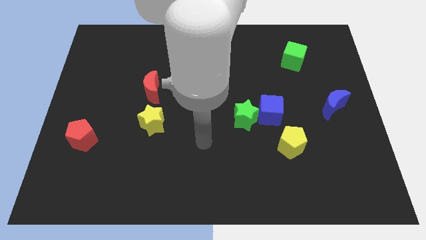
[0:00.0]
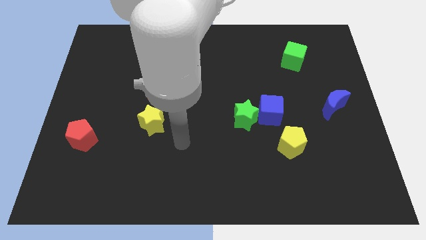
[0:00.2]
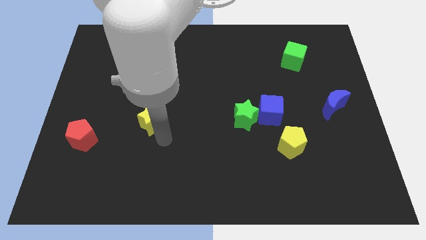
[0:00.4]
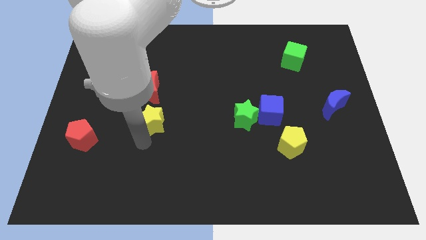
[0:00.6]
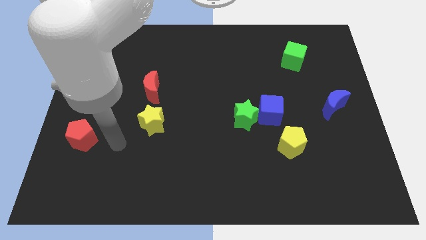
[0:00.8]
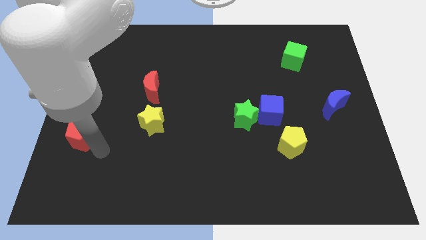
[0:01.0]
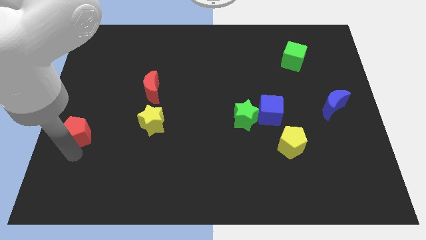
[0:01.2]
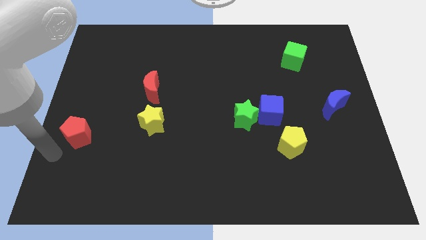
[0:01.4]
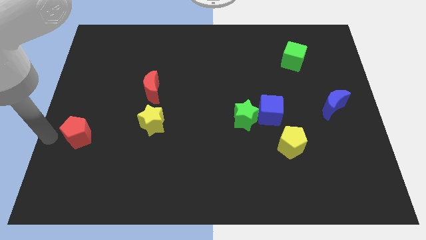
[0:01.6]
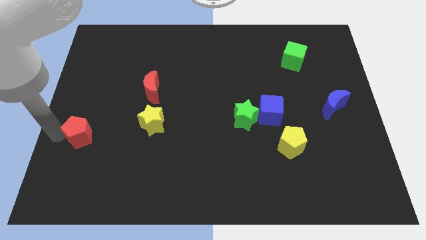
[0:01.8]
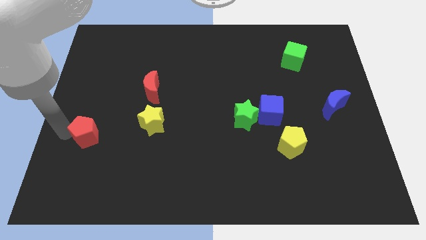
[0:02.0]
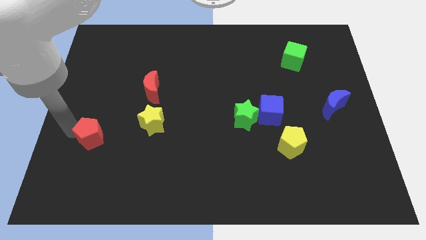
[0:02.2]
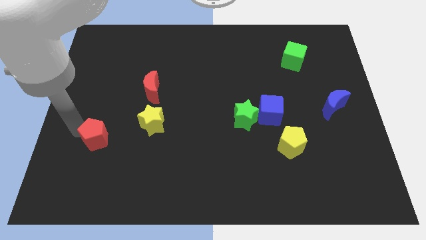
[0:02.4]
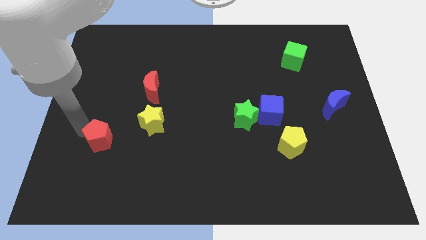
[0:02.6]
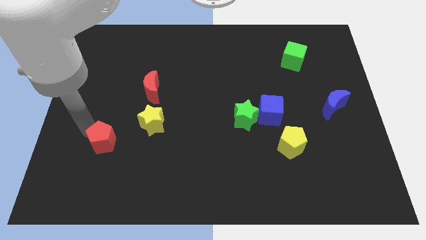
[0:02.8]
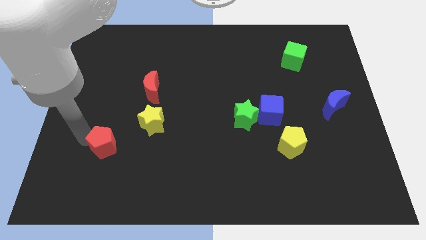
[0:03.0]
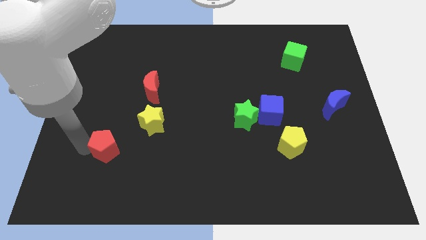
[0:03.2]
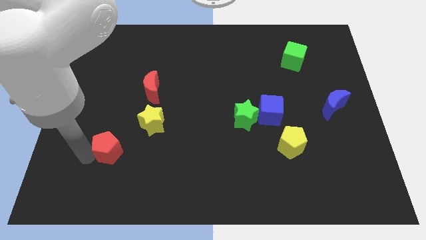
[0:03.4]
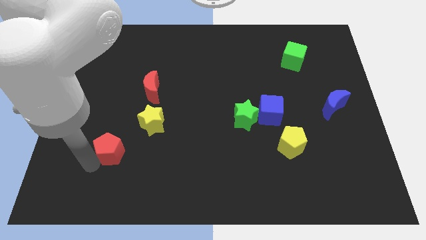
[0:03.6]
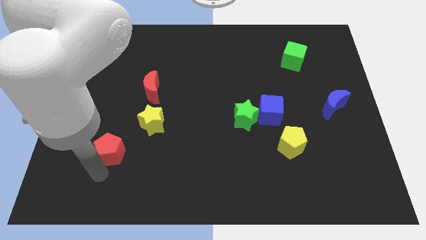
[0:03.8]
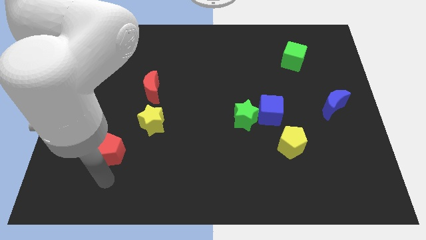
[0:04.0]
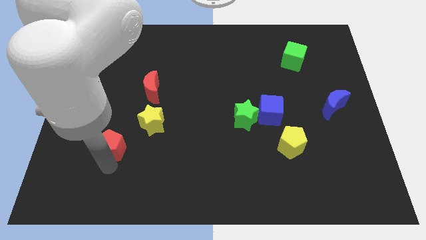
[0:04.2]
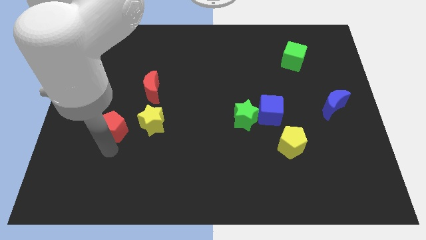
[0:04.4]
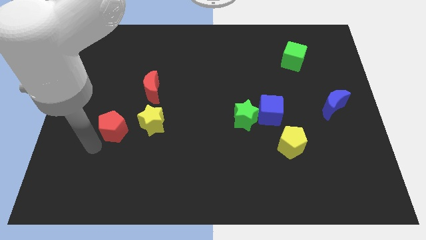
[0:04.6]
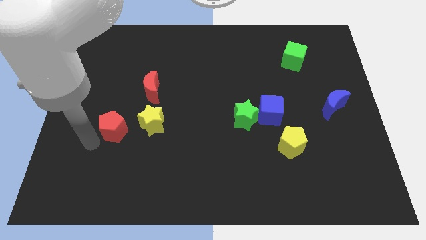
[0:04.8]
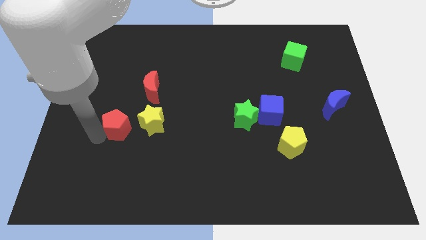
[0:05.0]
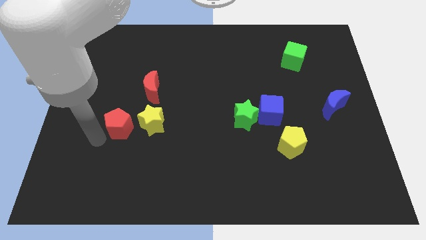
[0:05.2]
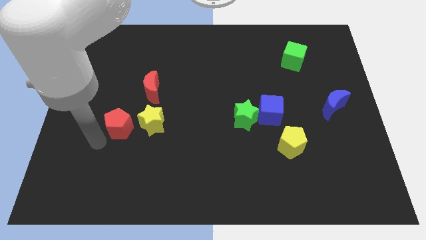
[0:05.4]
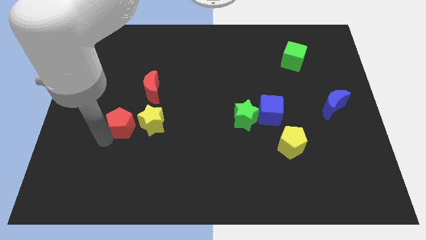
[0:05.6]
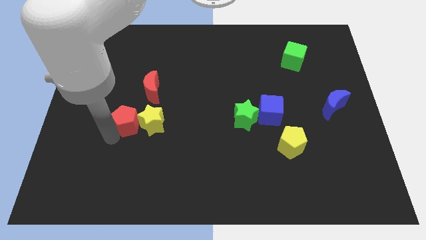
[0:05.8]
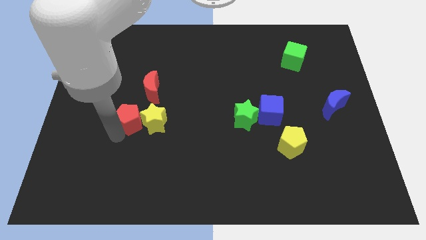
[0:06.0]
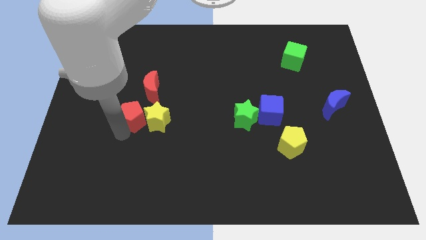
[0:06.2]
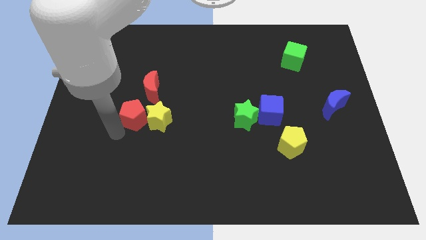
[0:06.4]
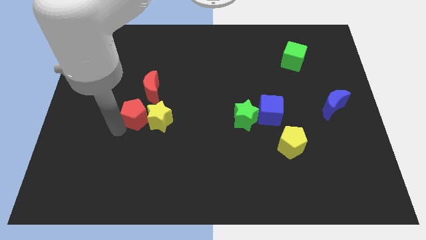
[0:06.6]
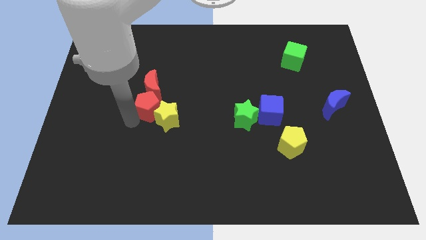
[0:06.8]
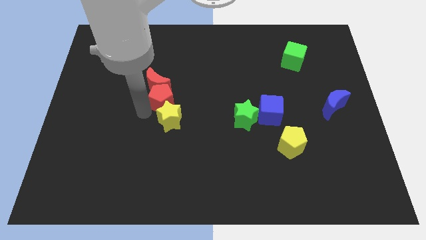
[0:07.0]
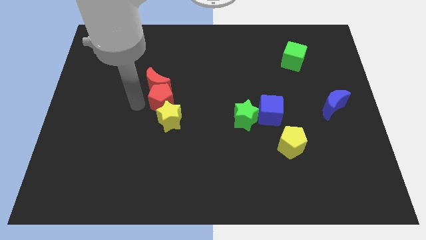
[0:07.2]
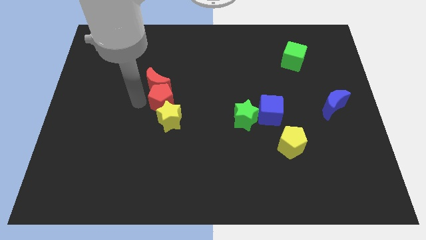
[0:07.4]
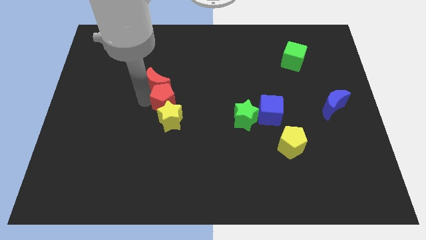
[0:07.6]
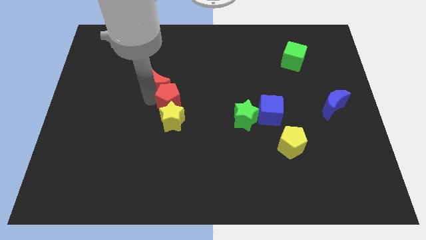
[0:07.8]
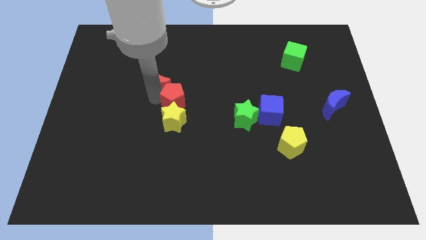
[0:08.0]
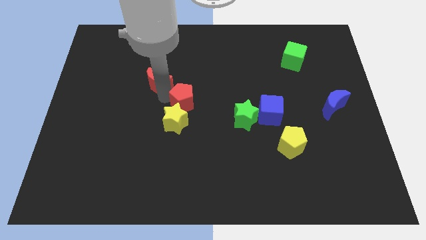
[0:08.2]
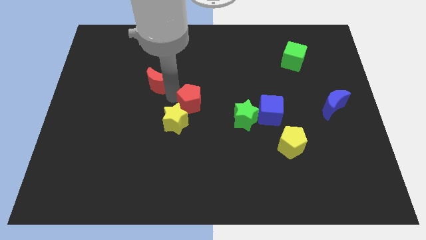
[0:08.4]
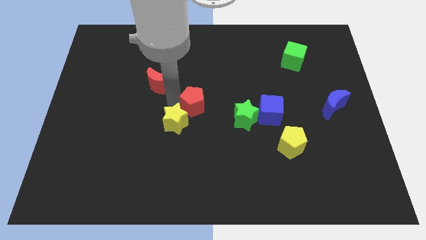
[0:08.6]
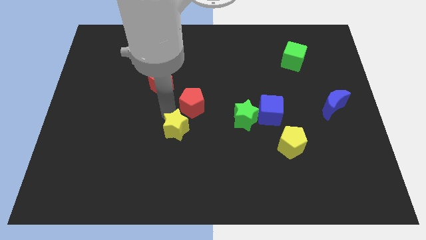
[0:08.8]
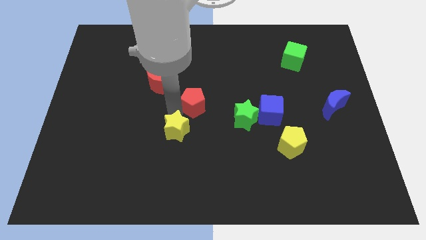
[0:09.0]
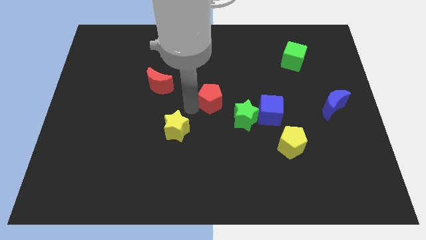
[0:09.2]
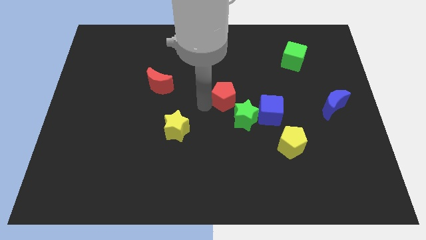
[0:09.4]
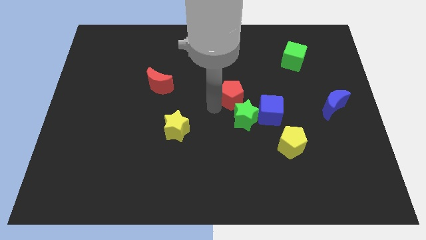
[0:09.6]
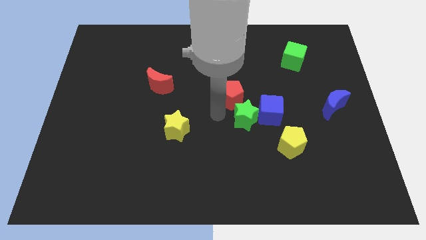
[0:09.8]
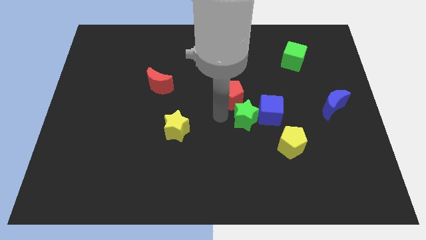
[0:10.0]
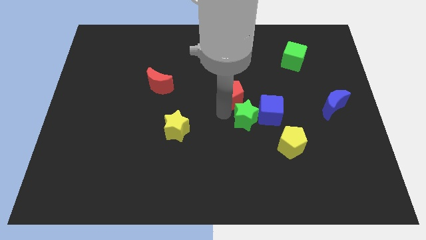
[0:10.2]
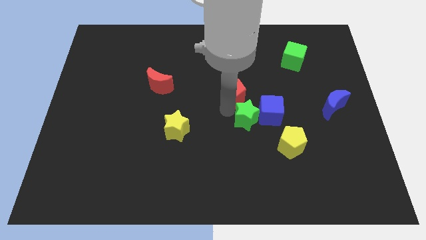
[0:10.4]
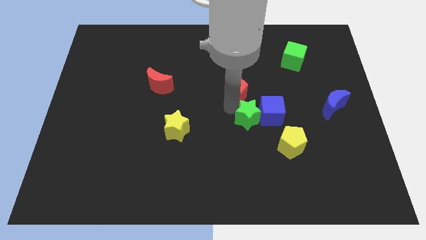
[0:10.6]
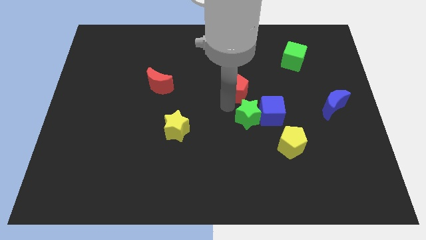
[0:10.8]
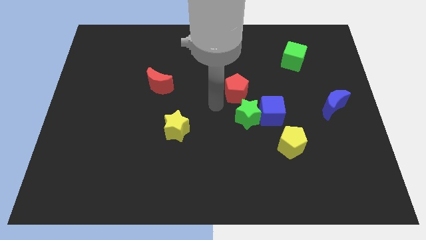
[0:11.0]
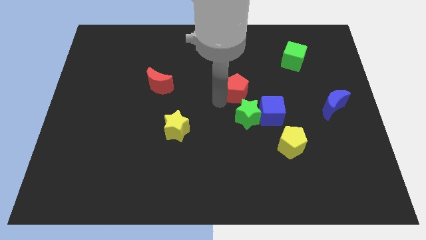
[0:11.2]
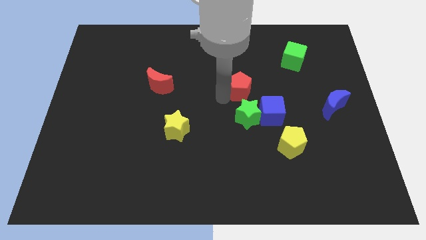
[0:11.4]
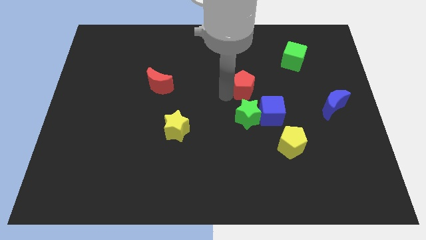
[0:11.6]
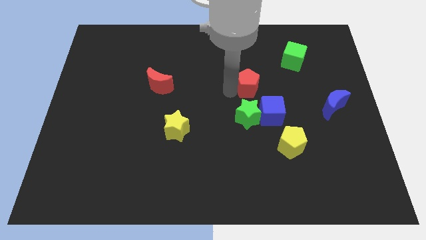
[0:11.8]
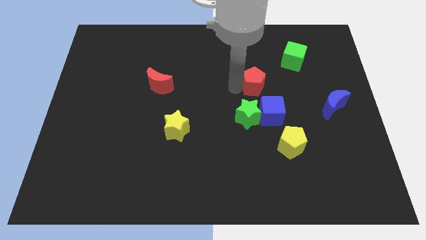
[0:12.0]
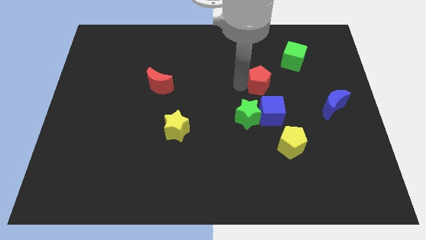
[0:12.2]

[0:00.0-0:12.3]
put the red pentagon to the bottom left side of the green cube

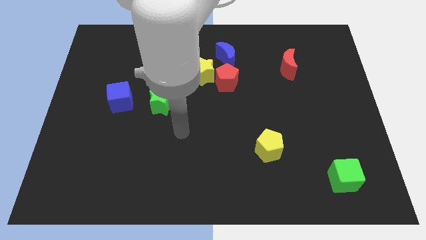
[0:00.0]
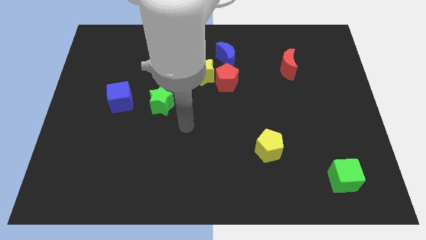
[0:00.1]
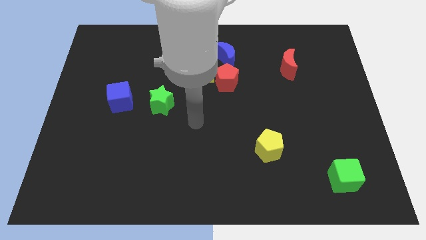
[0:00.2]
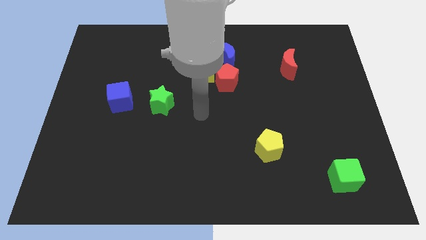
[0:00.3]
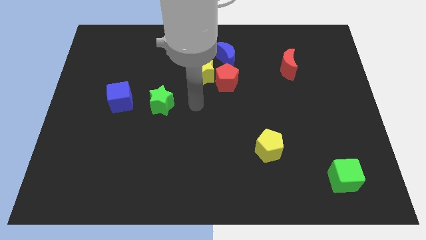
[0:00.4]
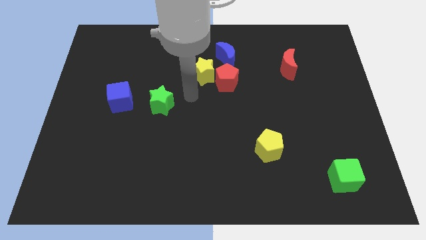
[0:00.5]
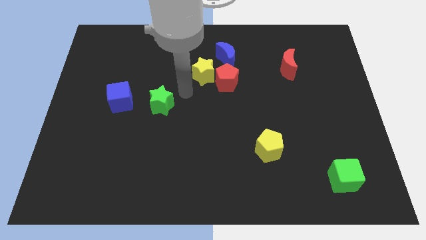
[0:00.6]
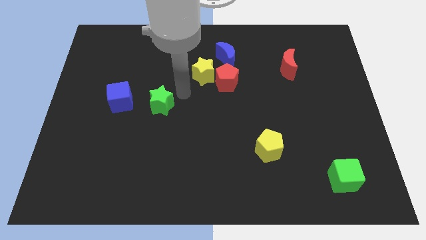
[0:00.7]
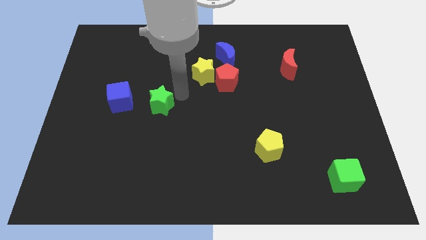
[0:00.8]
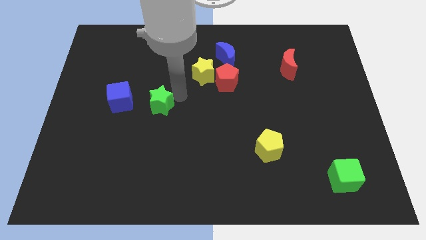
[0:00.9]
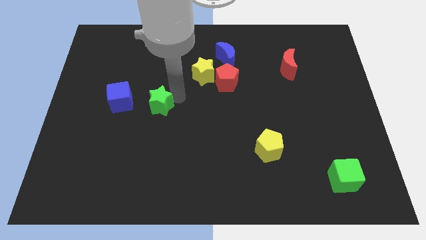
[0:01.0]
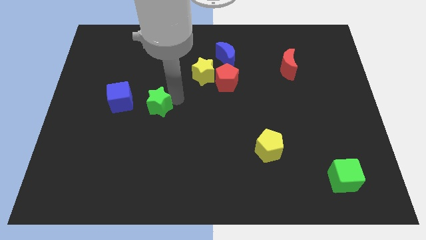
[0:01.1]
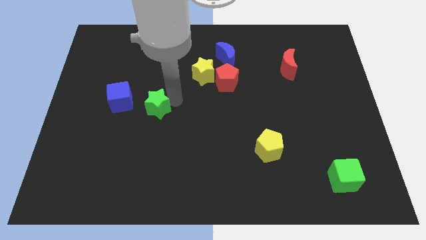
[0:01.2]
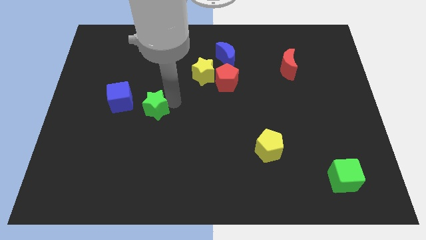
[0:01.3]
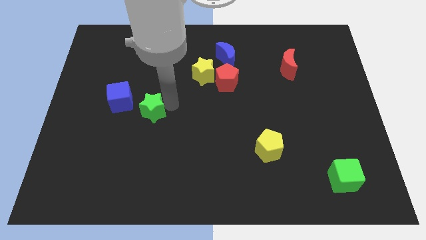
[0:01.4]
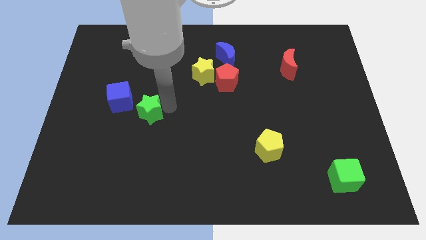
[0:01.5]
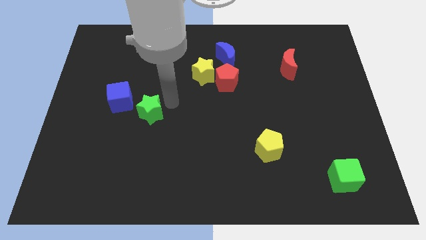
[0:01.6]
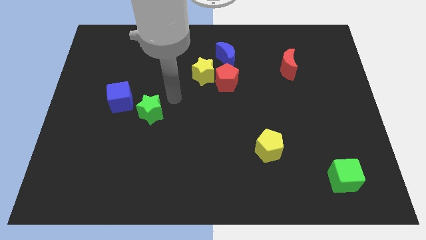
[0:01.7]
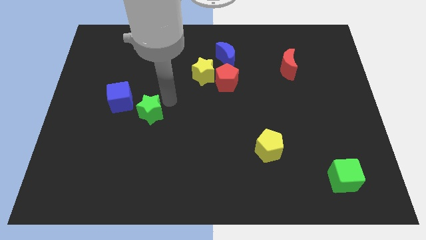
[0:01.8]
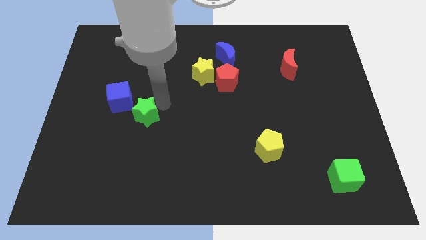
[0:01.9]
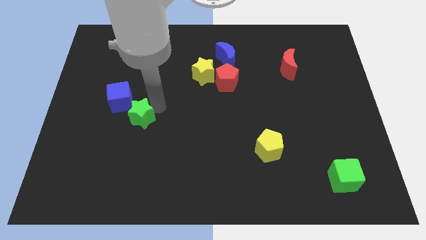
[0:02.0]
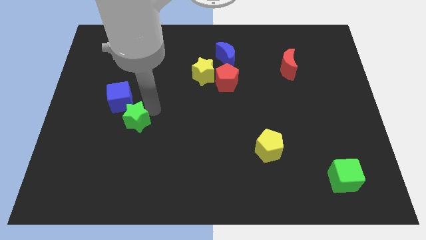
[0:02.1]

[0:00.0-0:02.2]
put the green star below the blue cube
